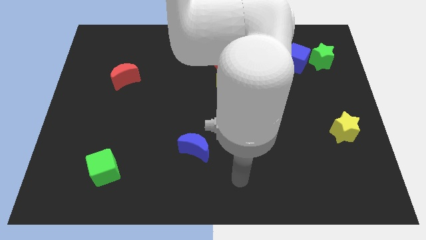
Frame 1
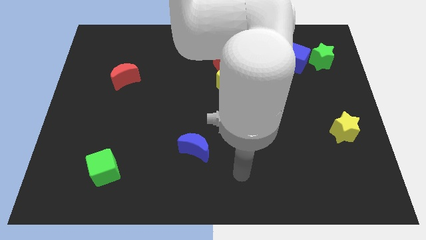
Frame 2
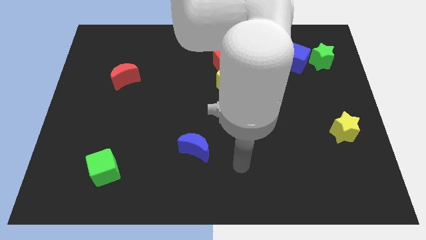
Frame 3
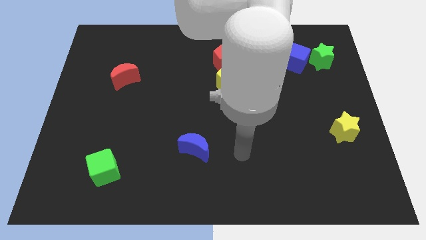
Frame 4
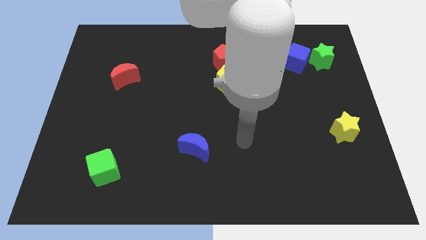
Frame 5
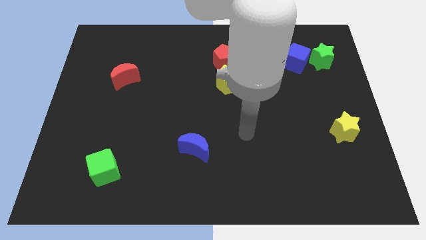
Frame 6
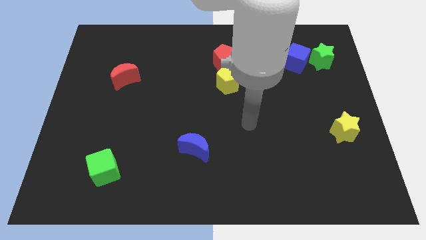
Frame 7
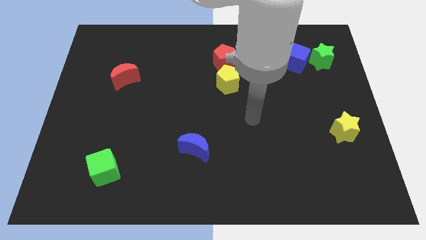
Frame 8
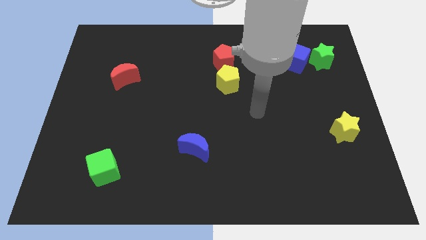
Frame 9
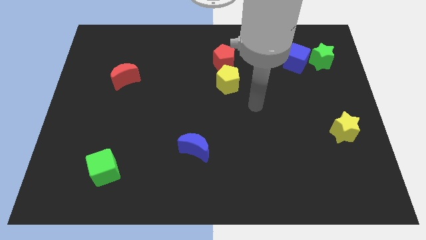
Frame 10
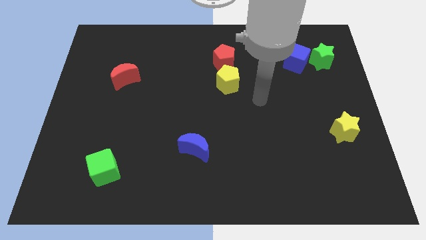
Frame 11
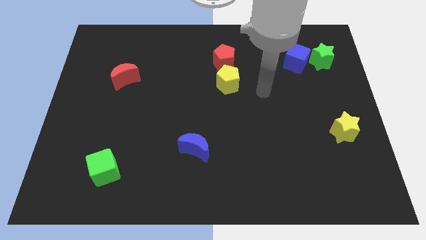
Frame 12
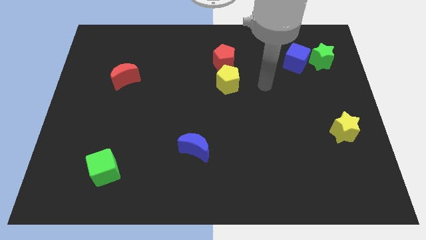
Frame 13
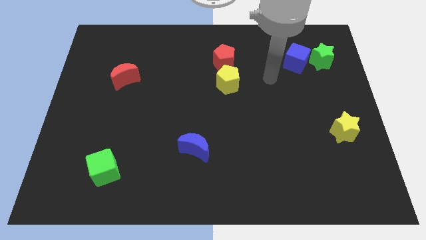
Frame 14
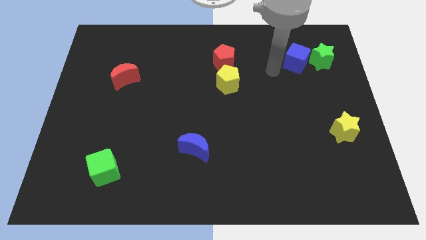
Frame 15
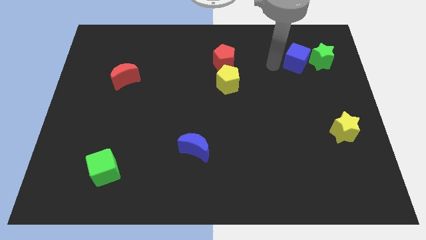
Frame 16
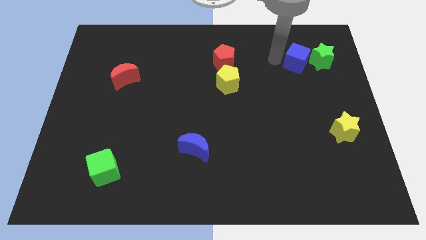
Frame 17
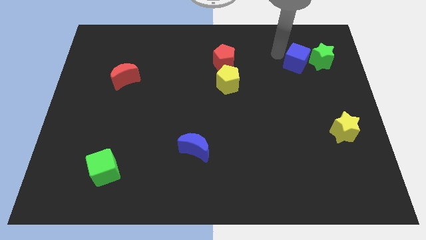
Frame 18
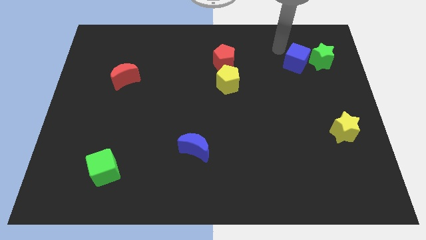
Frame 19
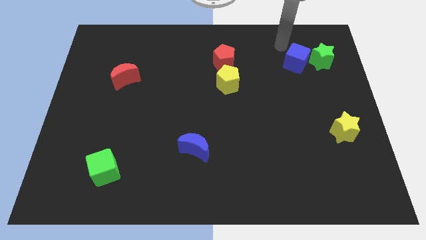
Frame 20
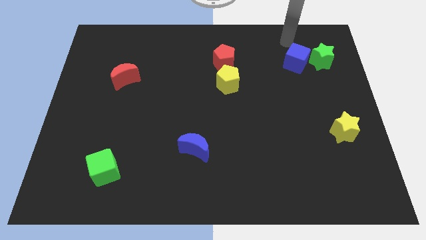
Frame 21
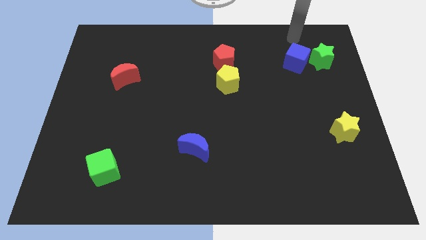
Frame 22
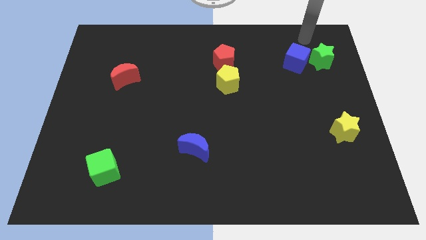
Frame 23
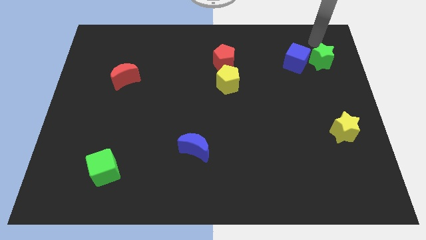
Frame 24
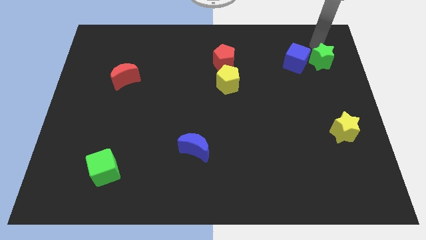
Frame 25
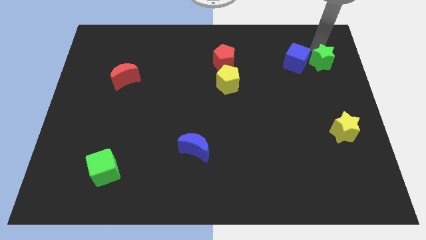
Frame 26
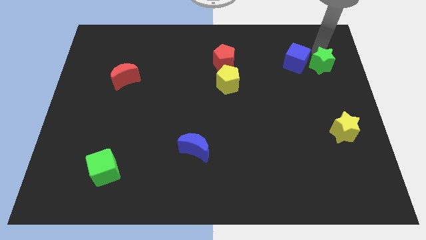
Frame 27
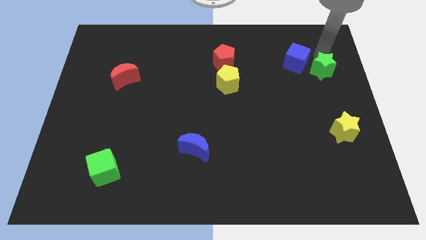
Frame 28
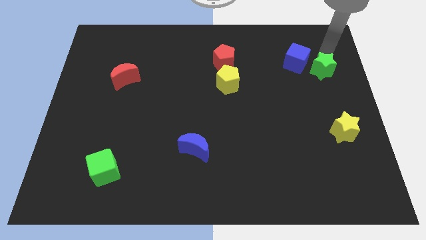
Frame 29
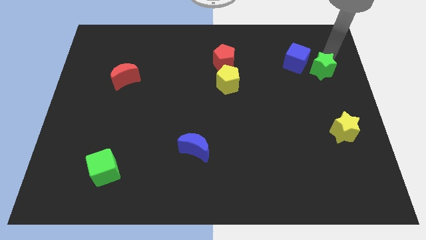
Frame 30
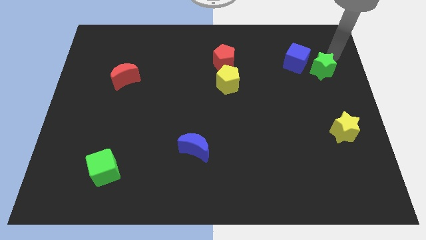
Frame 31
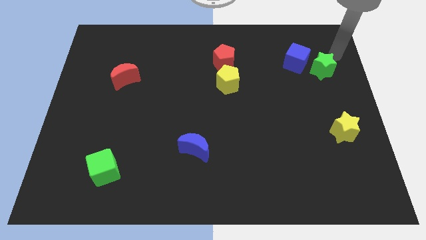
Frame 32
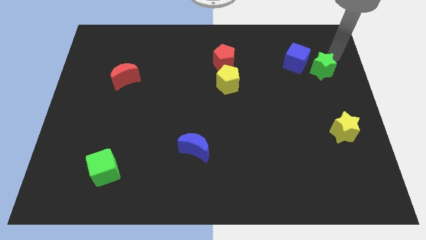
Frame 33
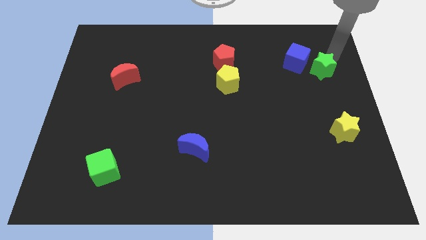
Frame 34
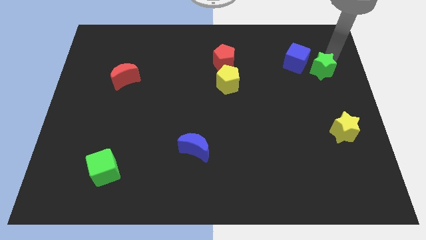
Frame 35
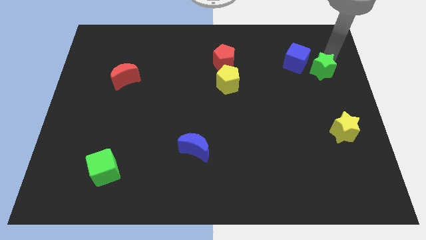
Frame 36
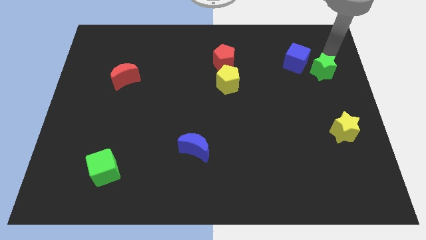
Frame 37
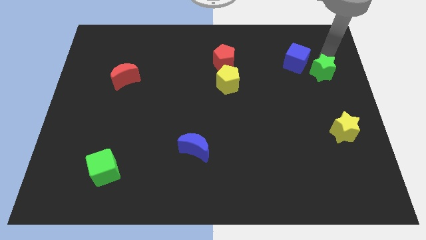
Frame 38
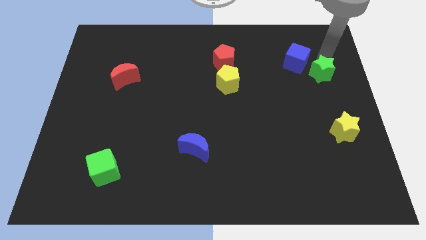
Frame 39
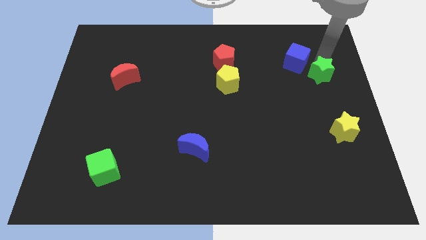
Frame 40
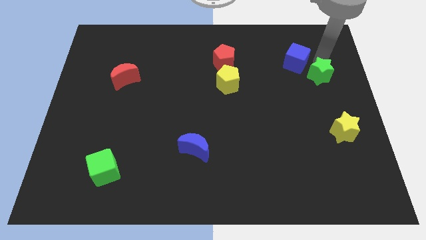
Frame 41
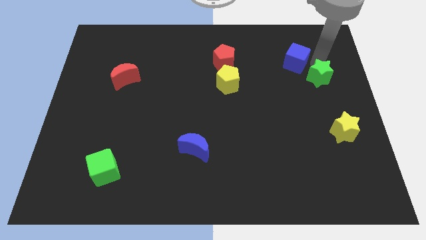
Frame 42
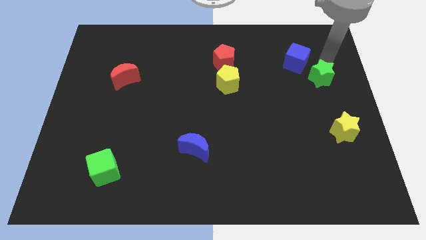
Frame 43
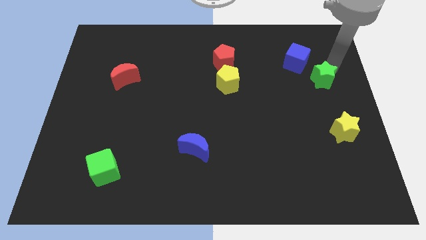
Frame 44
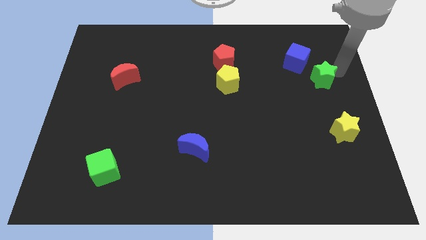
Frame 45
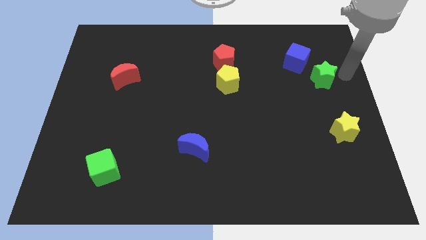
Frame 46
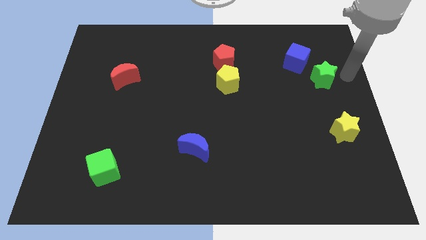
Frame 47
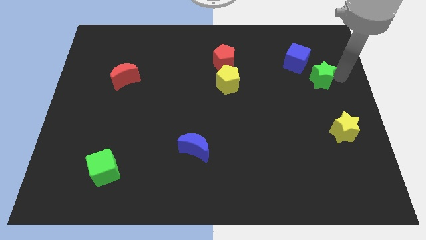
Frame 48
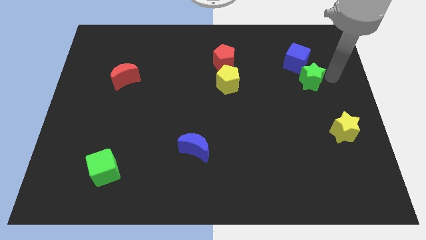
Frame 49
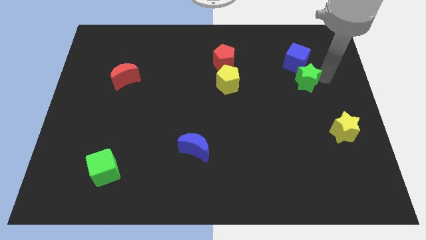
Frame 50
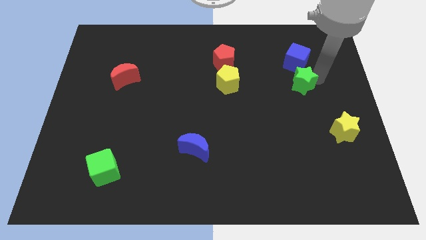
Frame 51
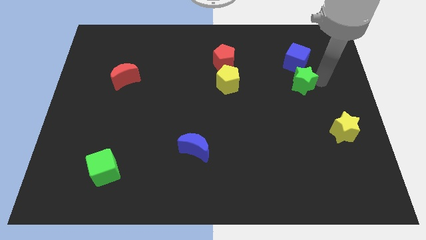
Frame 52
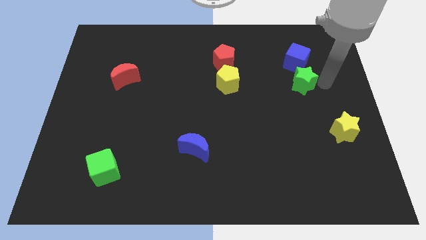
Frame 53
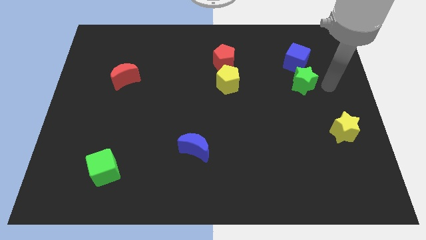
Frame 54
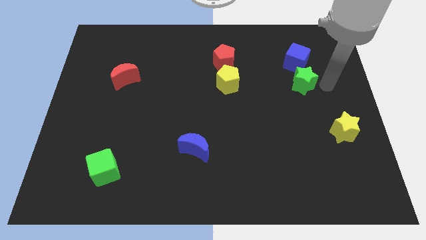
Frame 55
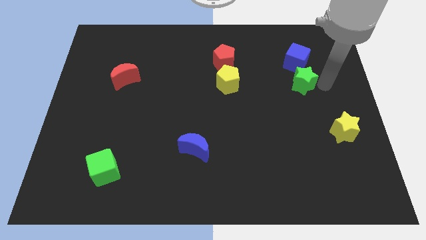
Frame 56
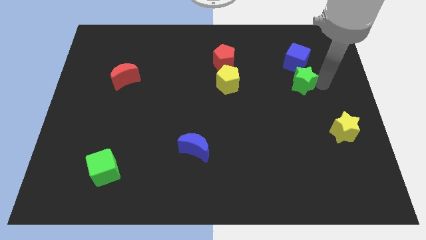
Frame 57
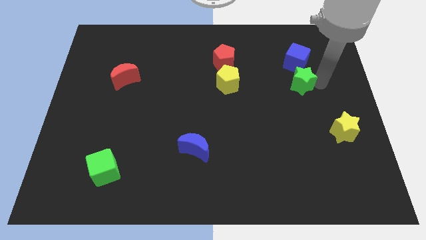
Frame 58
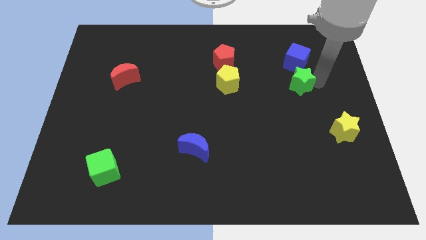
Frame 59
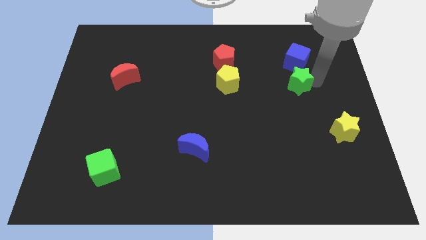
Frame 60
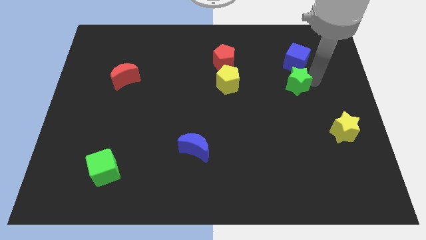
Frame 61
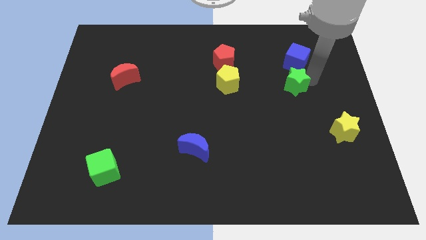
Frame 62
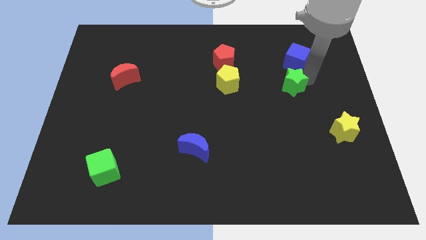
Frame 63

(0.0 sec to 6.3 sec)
push the green star to the right of the yellow pentagon
